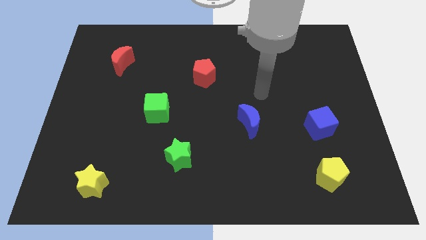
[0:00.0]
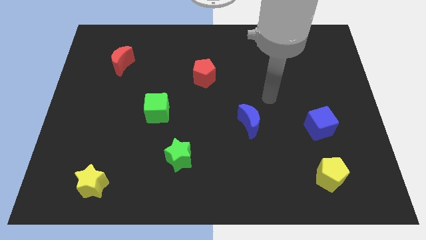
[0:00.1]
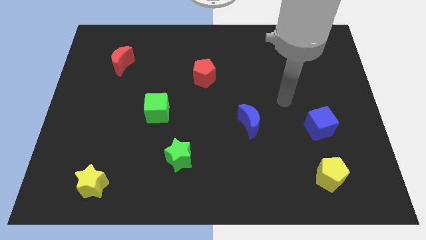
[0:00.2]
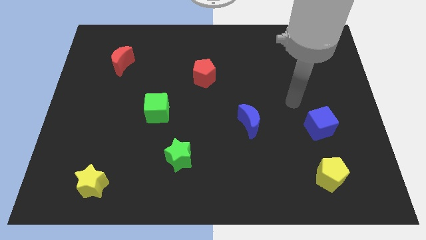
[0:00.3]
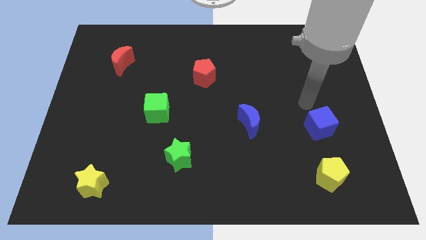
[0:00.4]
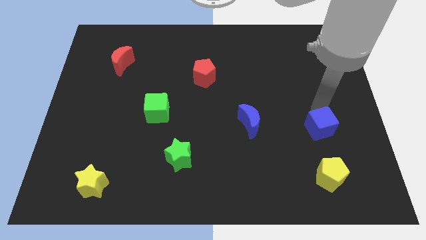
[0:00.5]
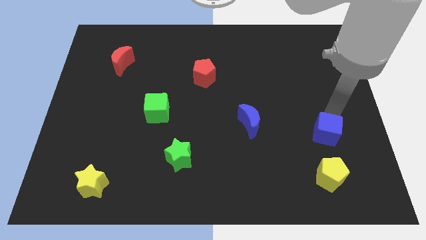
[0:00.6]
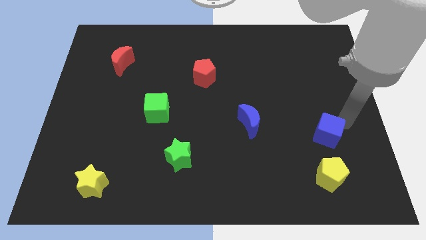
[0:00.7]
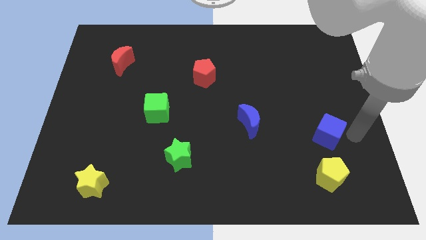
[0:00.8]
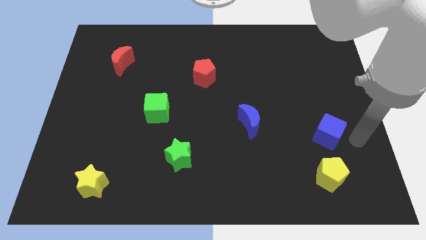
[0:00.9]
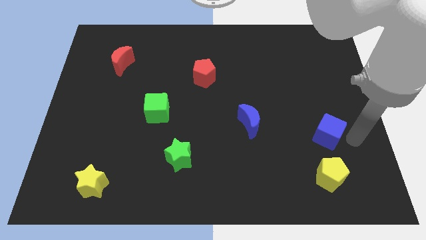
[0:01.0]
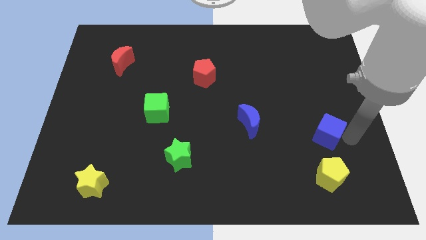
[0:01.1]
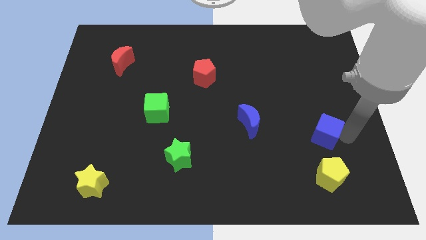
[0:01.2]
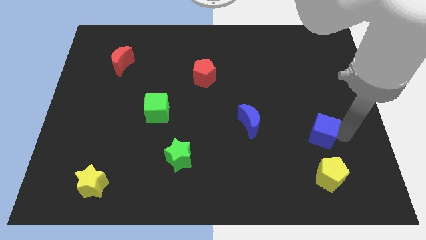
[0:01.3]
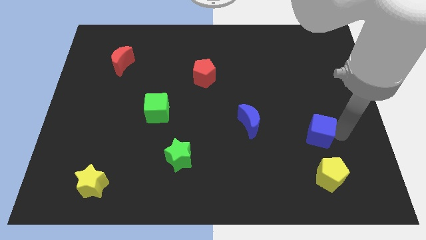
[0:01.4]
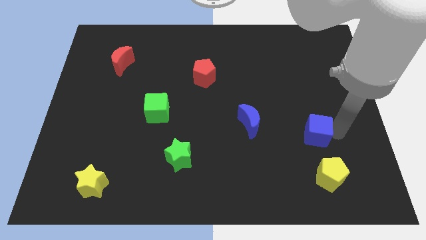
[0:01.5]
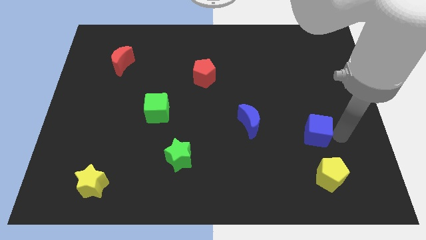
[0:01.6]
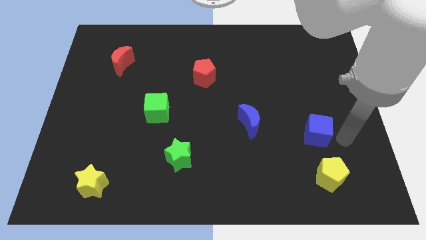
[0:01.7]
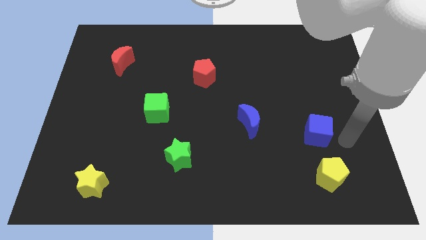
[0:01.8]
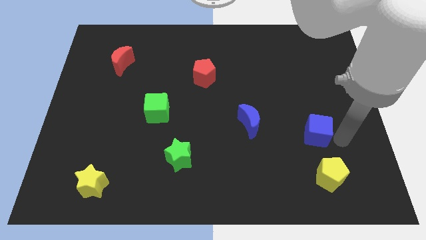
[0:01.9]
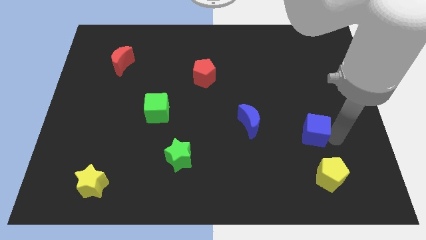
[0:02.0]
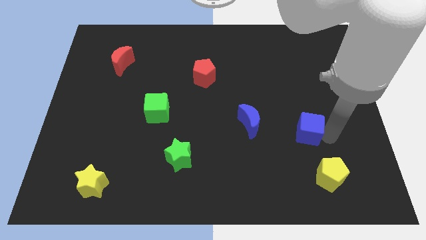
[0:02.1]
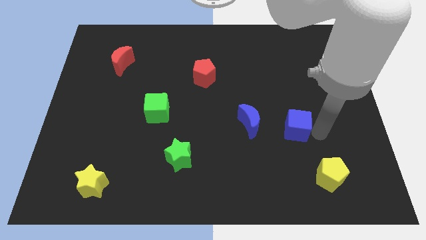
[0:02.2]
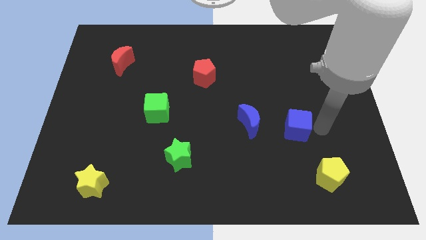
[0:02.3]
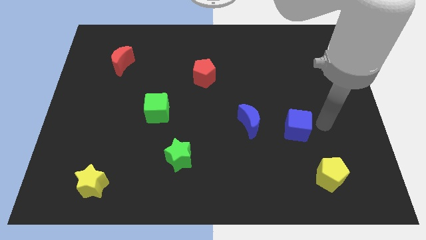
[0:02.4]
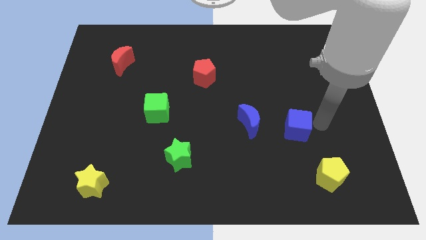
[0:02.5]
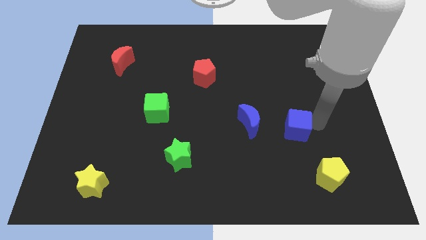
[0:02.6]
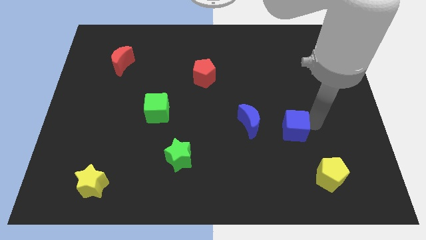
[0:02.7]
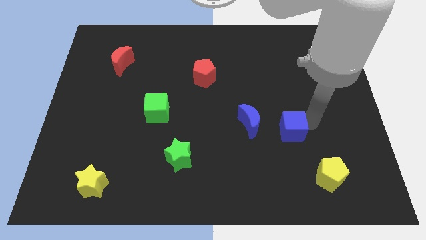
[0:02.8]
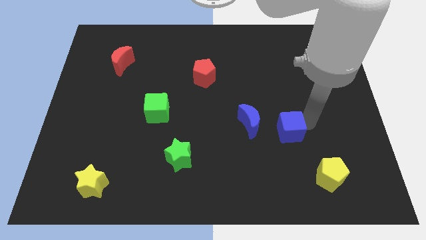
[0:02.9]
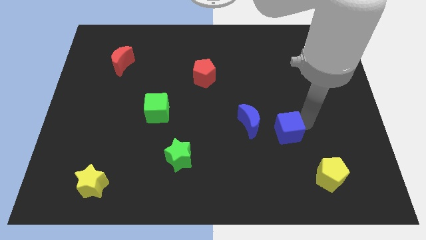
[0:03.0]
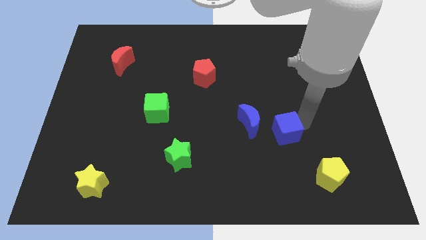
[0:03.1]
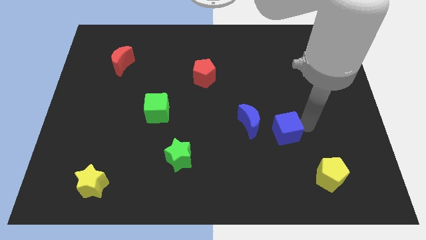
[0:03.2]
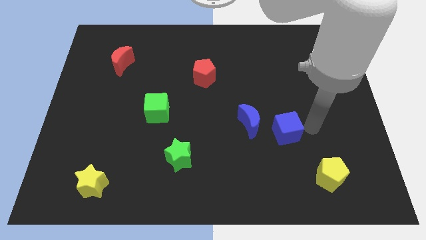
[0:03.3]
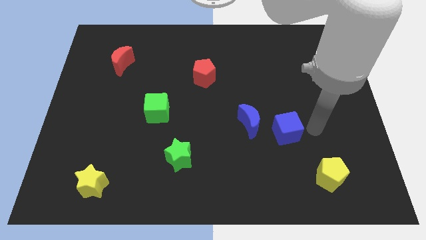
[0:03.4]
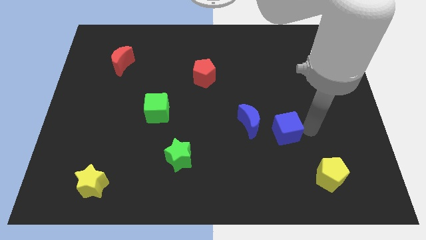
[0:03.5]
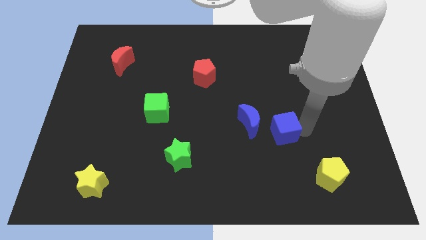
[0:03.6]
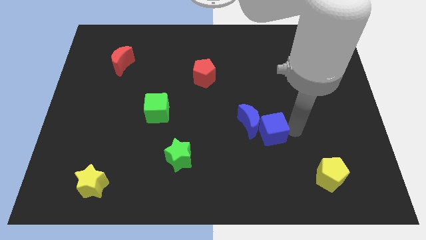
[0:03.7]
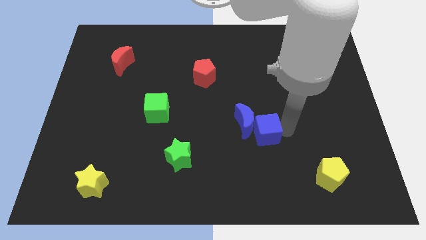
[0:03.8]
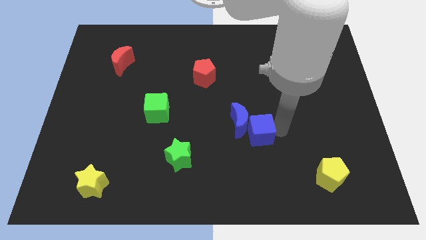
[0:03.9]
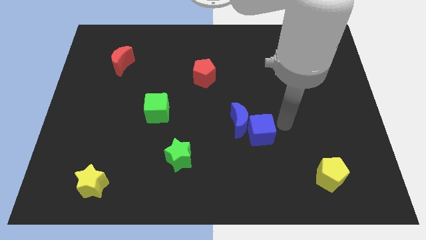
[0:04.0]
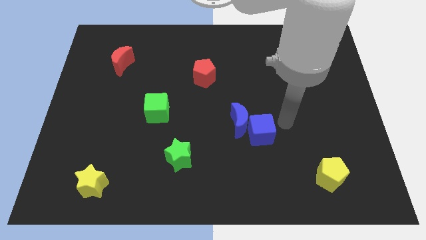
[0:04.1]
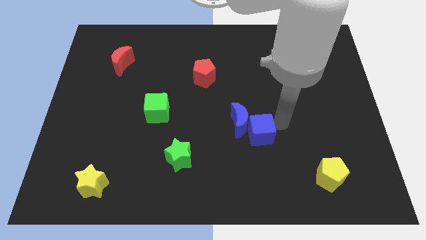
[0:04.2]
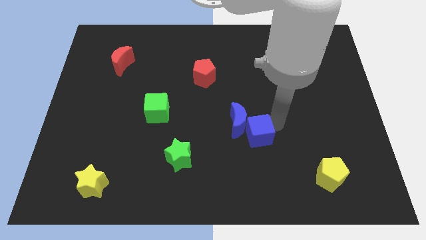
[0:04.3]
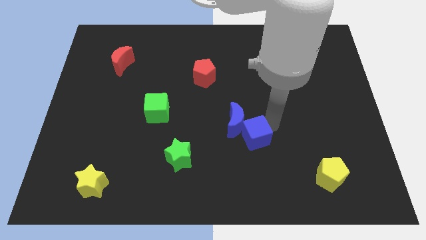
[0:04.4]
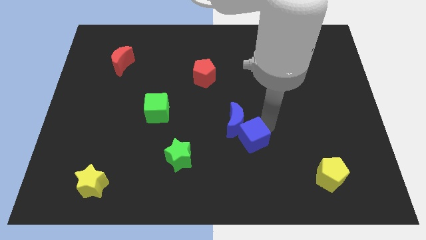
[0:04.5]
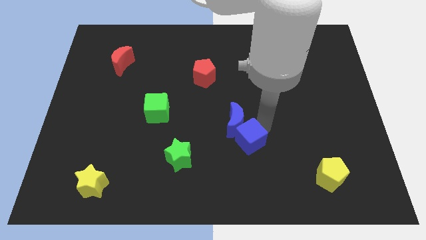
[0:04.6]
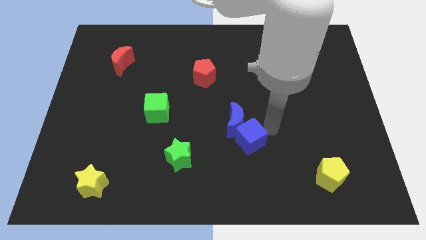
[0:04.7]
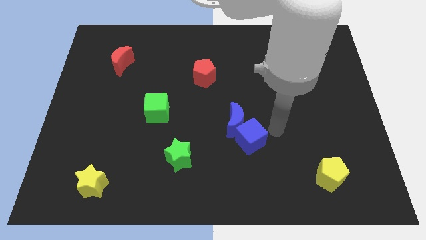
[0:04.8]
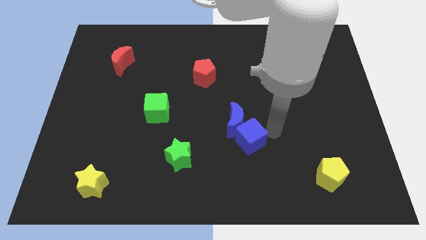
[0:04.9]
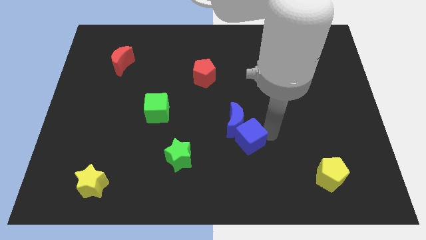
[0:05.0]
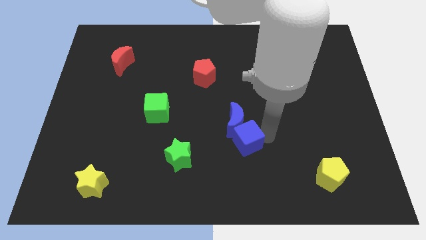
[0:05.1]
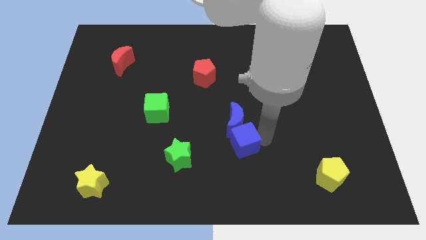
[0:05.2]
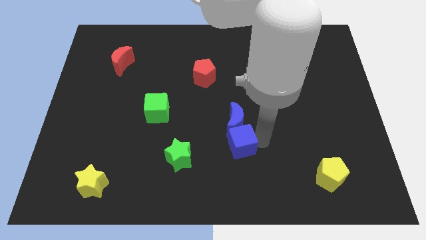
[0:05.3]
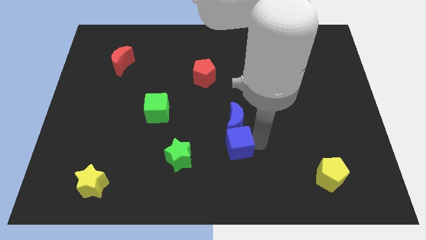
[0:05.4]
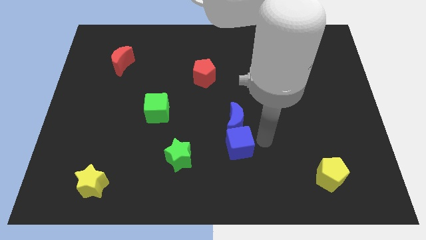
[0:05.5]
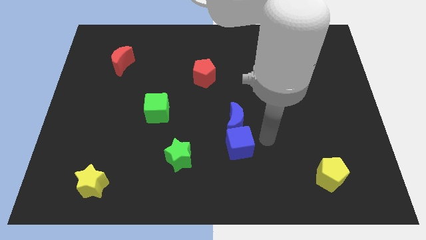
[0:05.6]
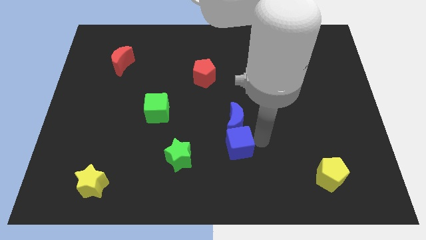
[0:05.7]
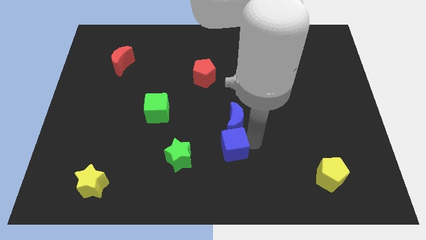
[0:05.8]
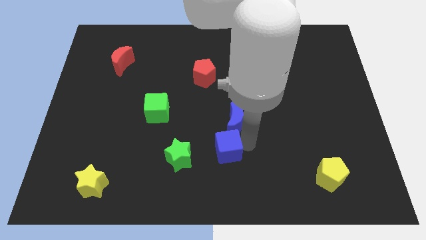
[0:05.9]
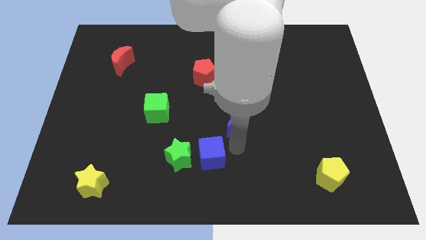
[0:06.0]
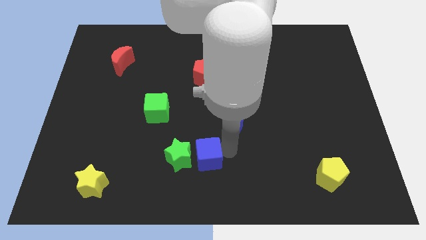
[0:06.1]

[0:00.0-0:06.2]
move the blue cube to the green star

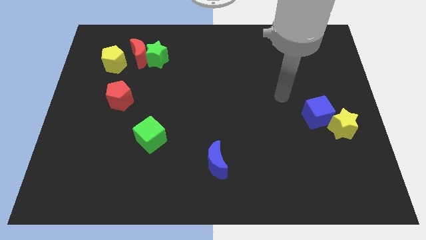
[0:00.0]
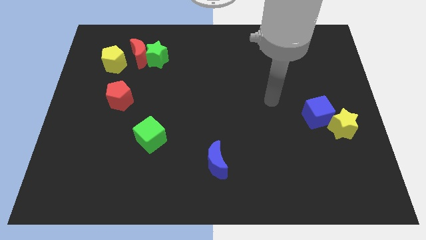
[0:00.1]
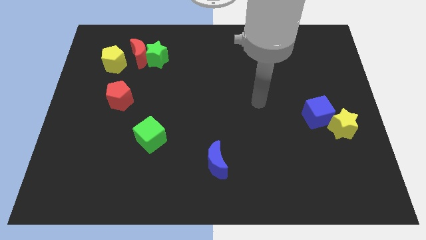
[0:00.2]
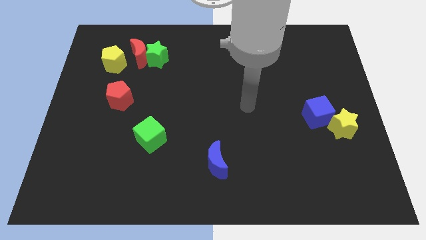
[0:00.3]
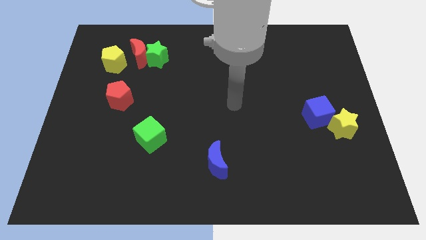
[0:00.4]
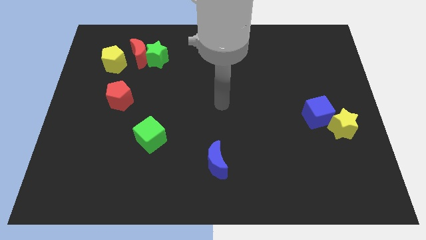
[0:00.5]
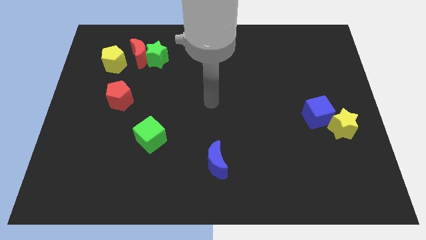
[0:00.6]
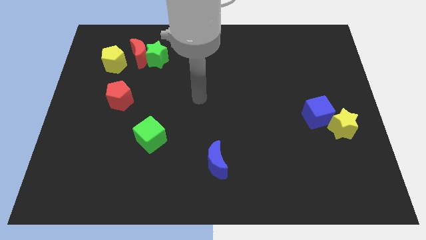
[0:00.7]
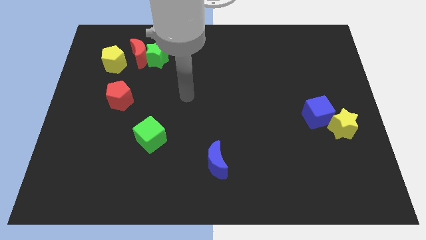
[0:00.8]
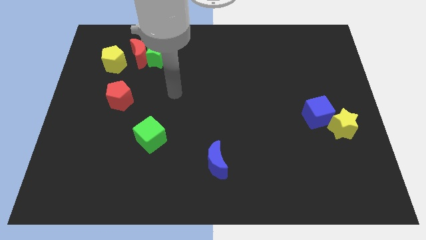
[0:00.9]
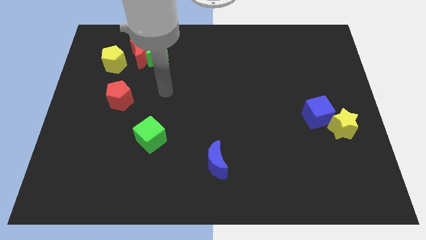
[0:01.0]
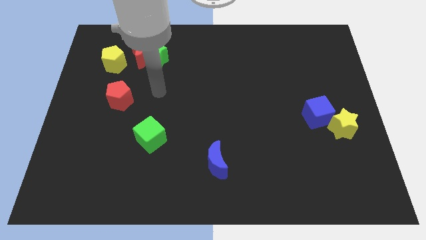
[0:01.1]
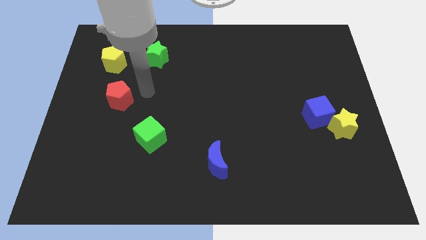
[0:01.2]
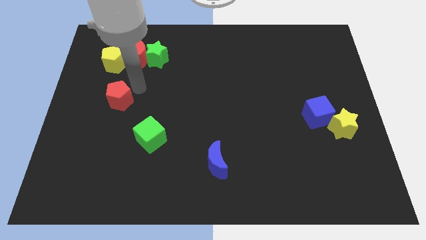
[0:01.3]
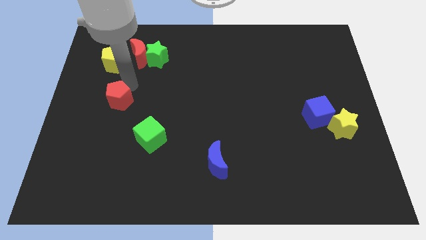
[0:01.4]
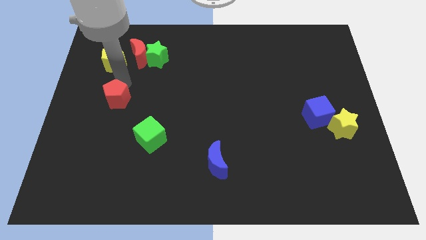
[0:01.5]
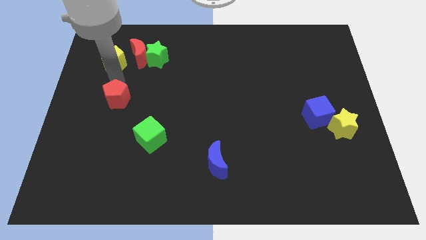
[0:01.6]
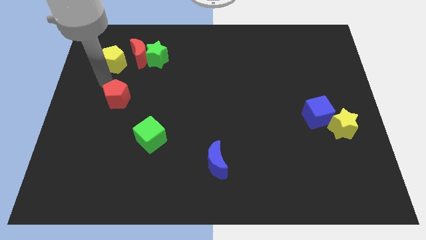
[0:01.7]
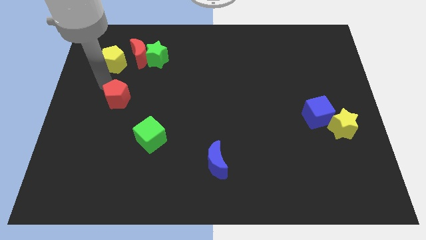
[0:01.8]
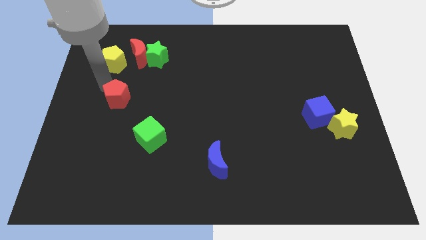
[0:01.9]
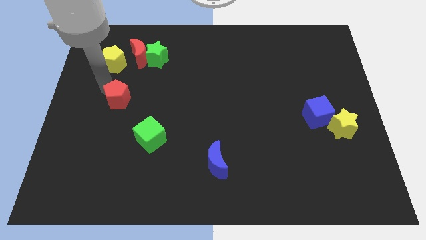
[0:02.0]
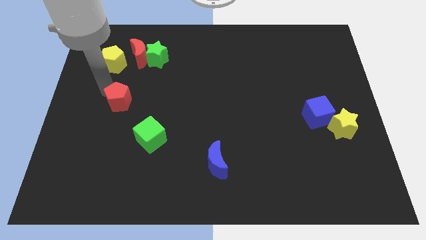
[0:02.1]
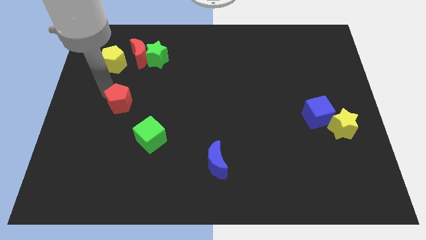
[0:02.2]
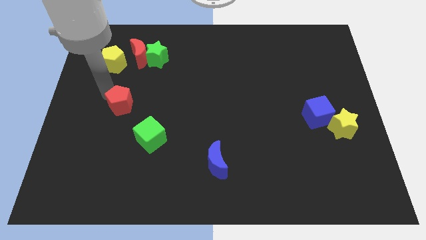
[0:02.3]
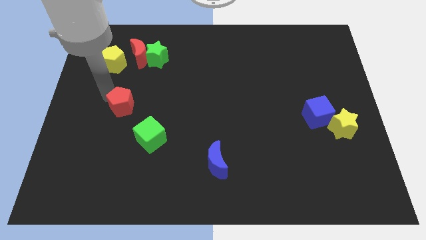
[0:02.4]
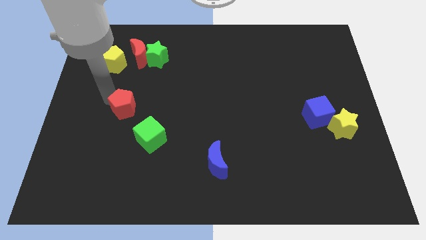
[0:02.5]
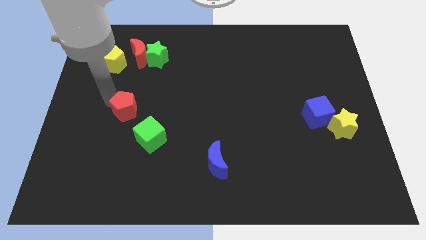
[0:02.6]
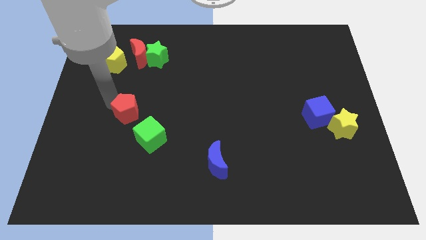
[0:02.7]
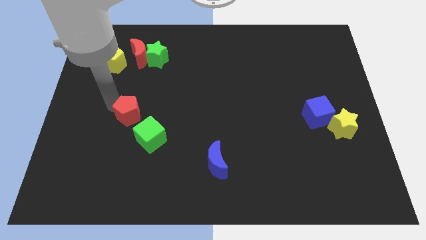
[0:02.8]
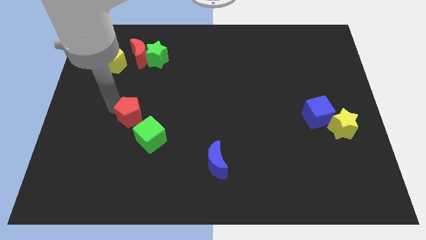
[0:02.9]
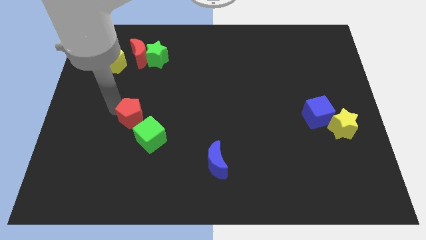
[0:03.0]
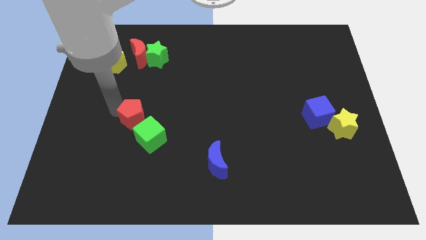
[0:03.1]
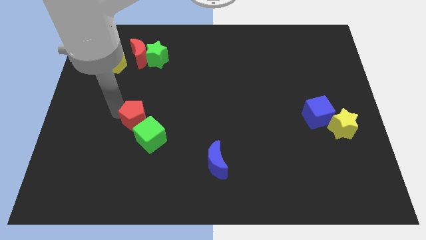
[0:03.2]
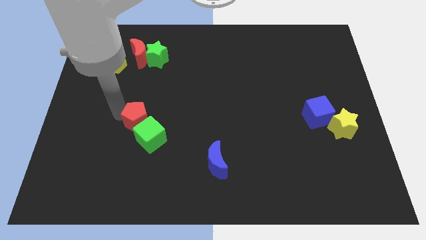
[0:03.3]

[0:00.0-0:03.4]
slide the red pentagon next to the green cube
